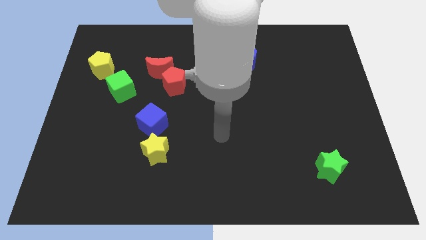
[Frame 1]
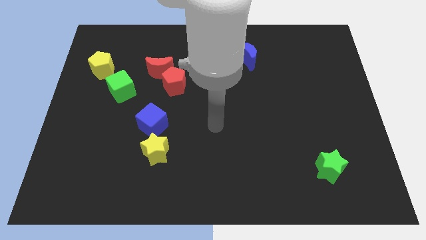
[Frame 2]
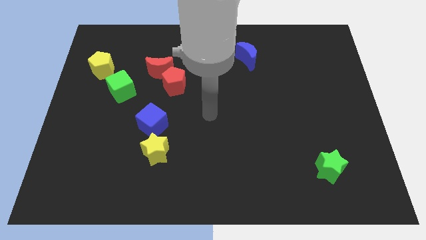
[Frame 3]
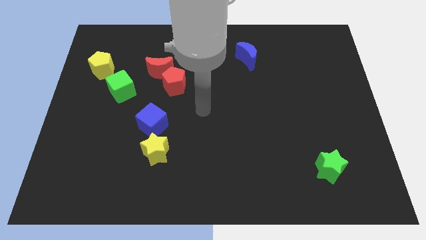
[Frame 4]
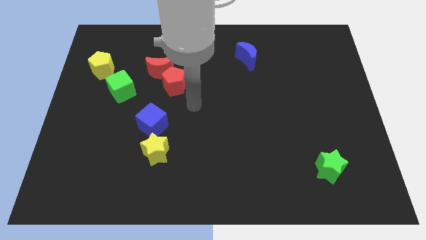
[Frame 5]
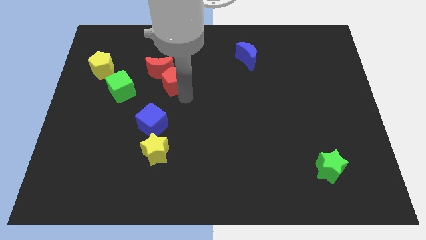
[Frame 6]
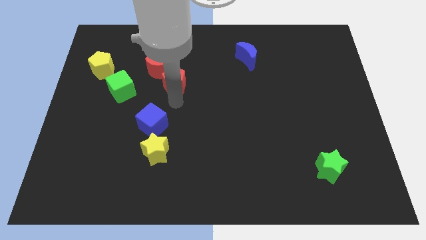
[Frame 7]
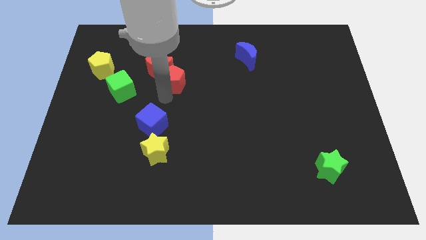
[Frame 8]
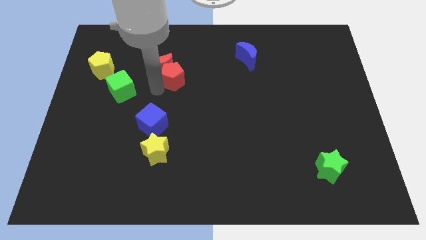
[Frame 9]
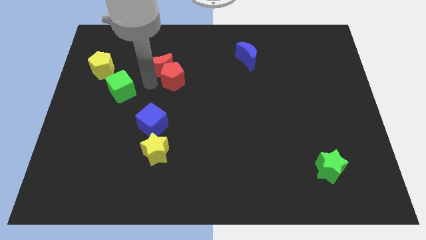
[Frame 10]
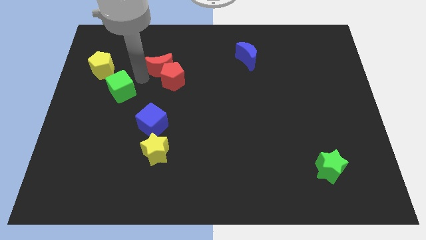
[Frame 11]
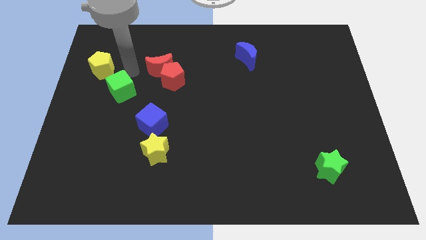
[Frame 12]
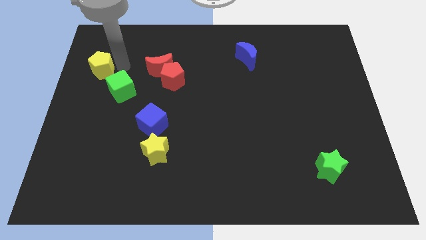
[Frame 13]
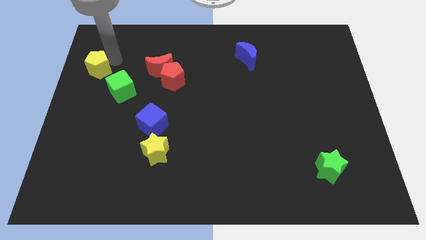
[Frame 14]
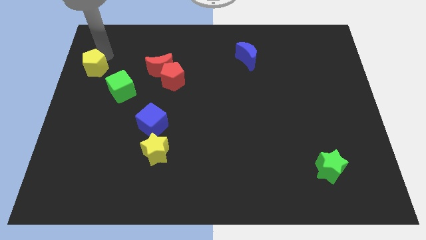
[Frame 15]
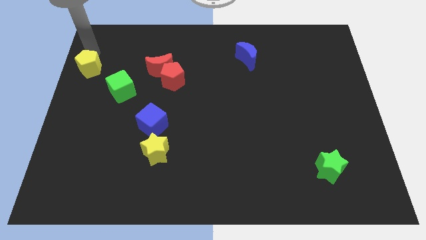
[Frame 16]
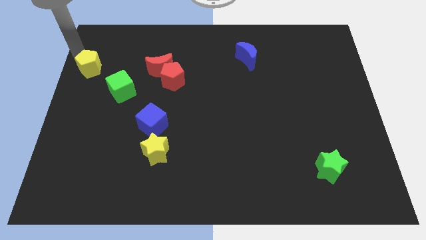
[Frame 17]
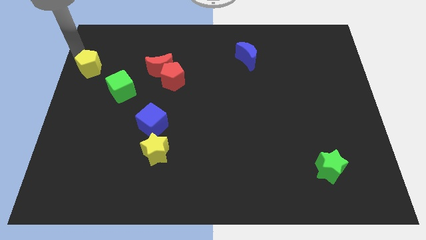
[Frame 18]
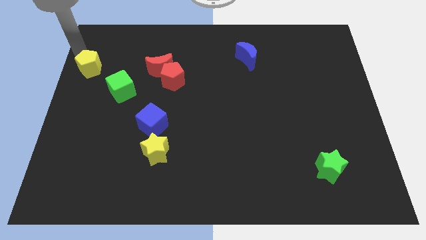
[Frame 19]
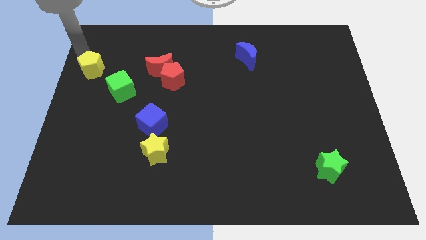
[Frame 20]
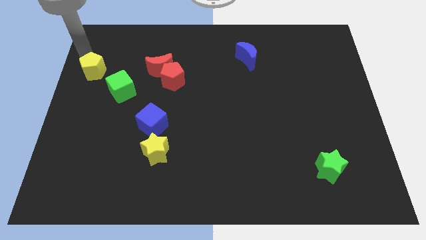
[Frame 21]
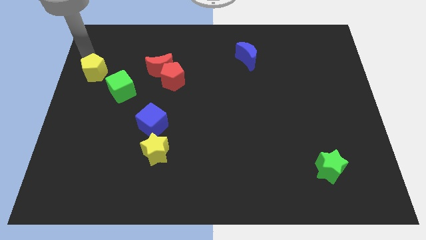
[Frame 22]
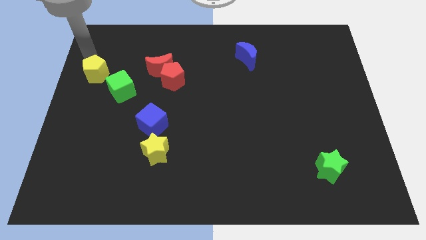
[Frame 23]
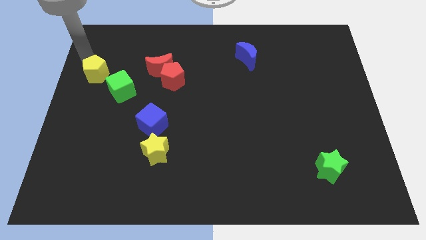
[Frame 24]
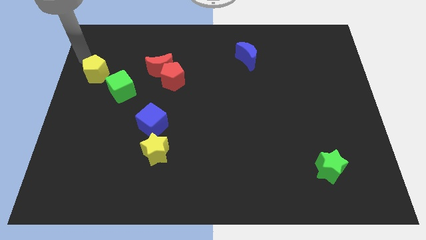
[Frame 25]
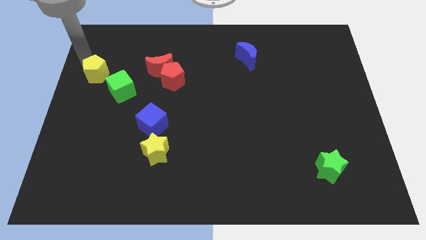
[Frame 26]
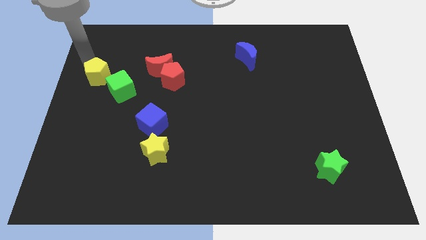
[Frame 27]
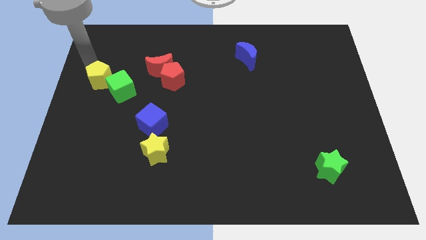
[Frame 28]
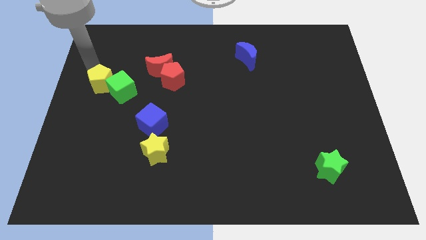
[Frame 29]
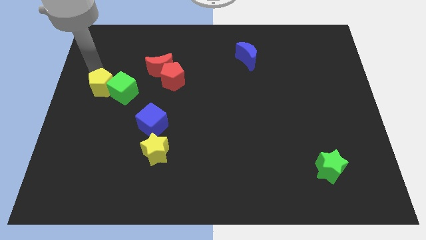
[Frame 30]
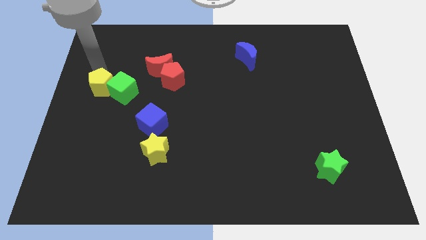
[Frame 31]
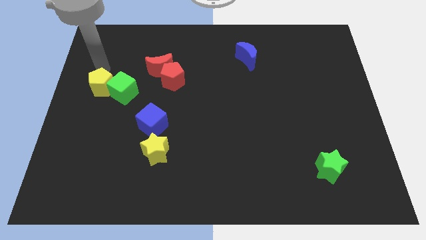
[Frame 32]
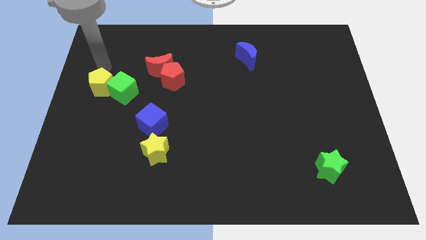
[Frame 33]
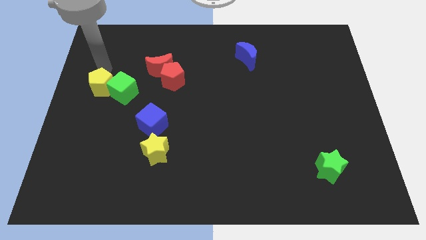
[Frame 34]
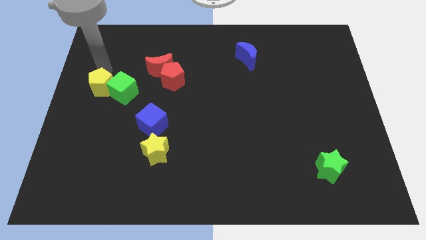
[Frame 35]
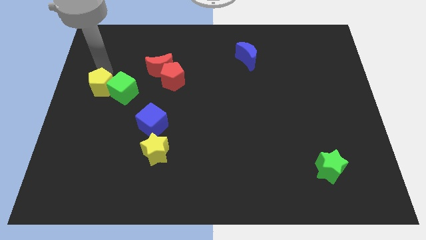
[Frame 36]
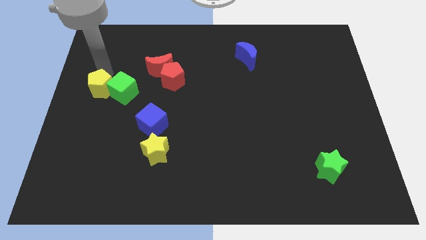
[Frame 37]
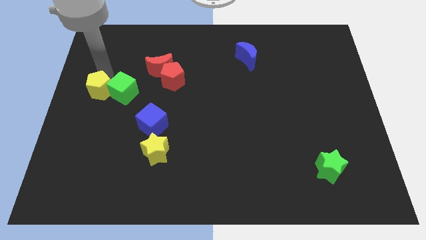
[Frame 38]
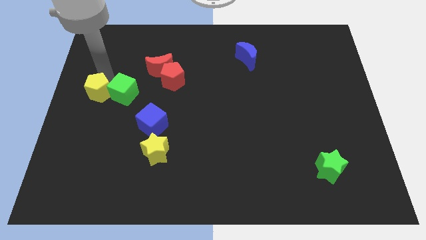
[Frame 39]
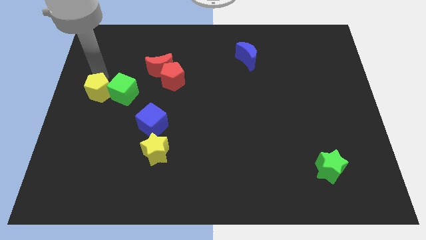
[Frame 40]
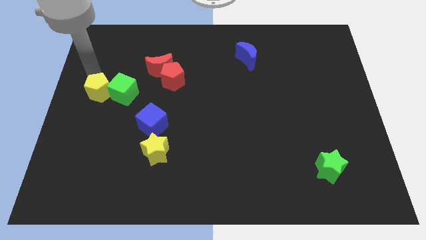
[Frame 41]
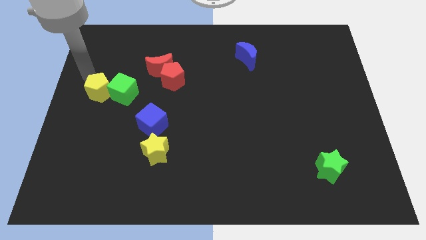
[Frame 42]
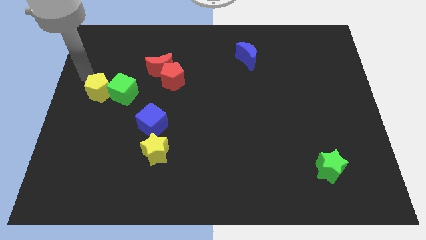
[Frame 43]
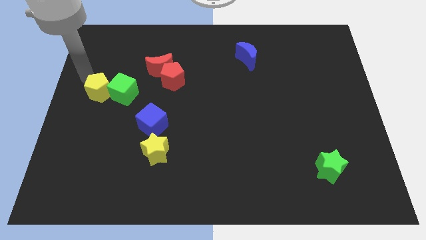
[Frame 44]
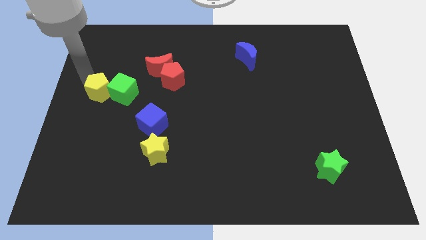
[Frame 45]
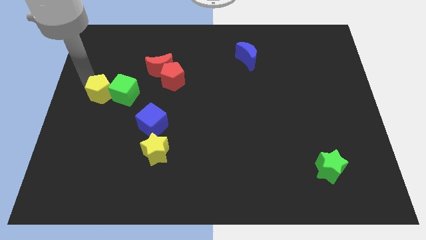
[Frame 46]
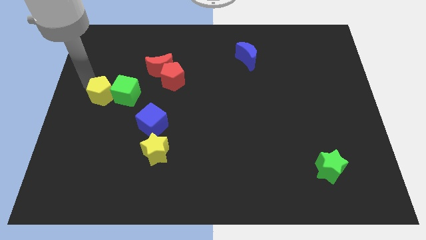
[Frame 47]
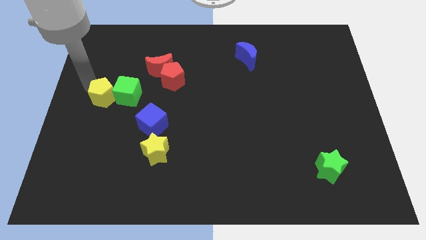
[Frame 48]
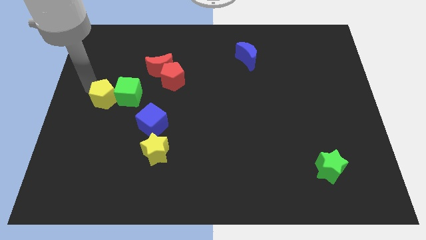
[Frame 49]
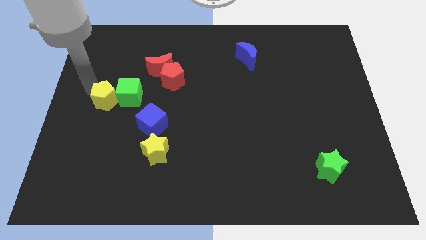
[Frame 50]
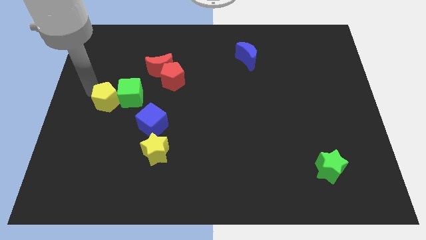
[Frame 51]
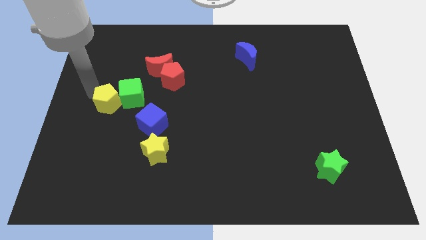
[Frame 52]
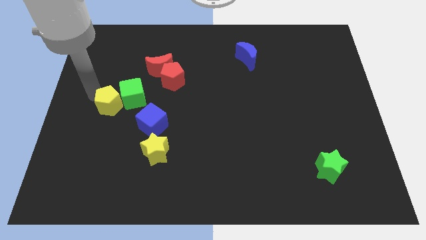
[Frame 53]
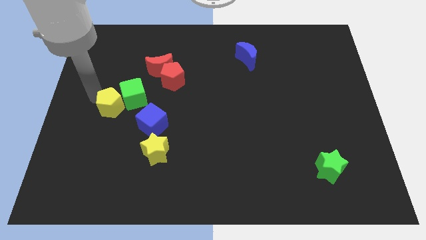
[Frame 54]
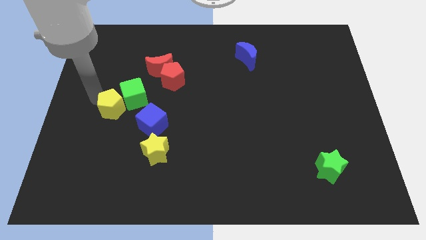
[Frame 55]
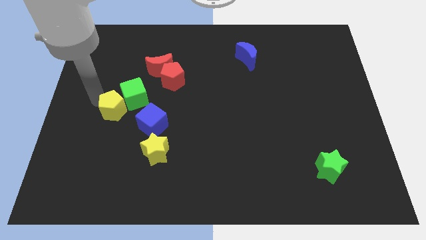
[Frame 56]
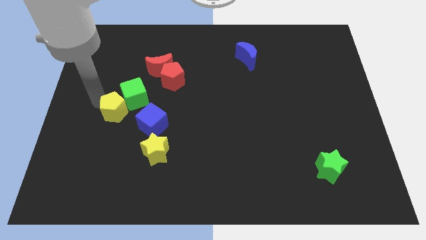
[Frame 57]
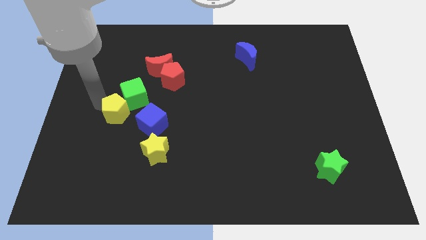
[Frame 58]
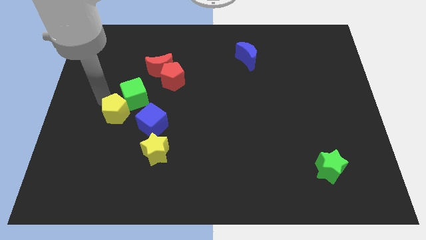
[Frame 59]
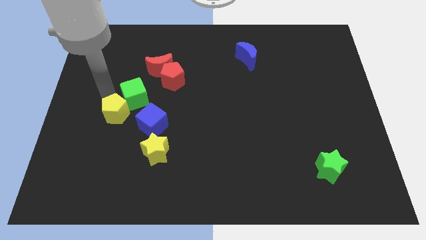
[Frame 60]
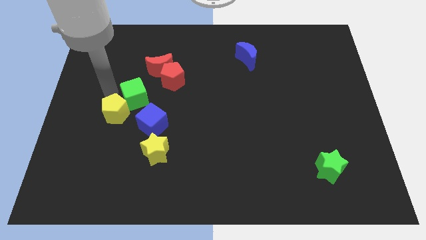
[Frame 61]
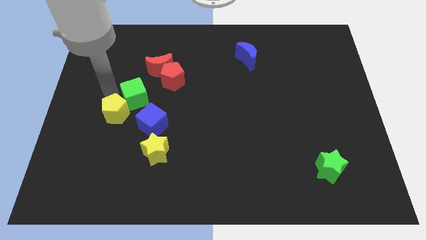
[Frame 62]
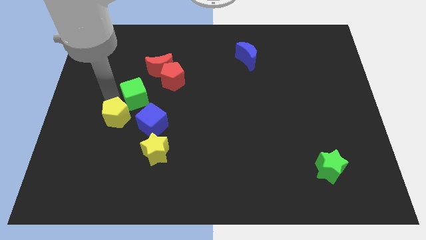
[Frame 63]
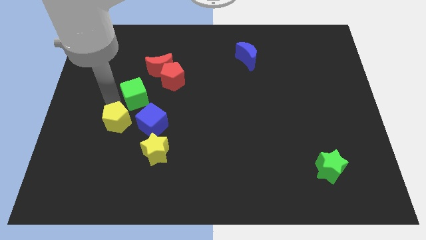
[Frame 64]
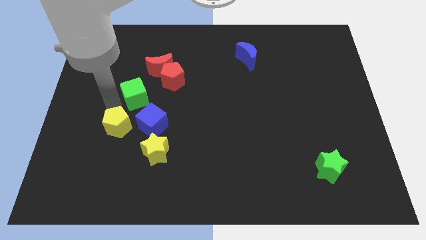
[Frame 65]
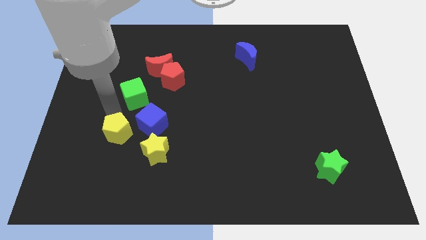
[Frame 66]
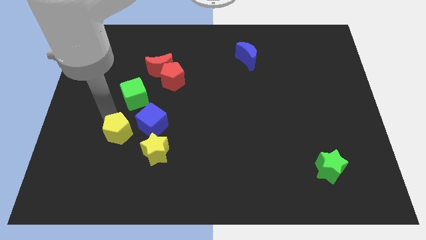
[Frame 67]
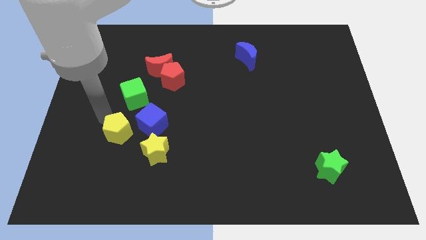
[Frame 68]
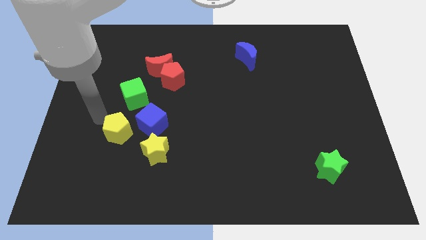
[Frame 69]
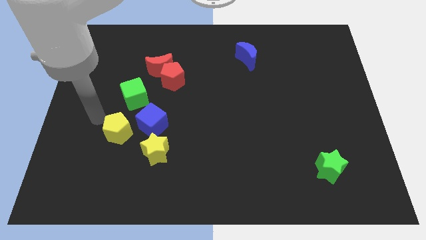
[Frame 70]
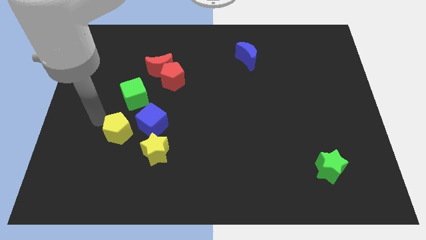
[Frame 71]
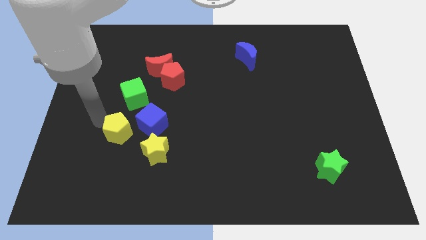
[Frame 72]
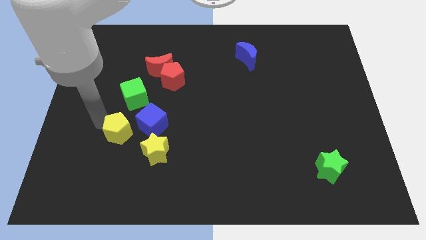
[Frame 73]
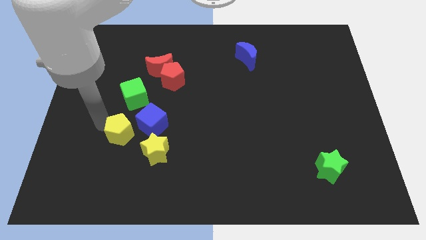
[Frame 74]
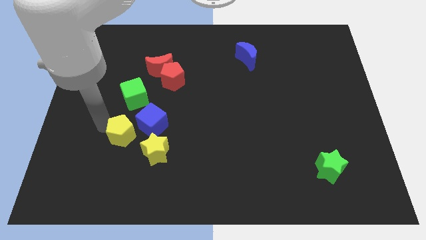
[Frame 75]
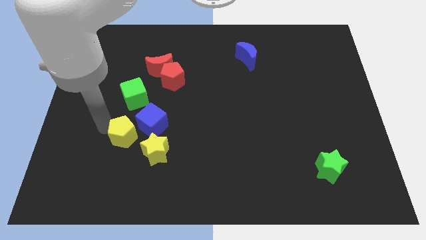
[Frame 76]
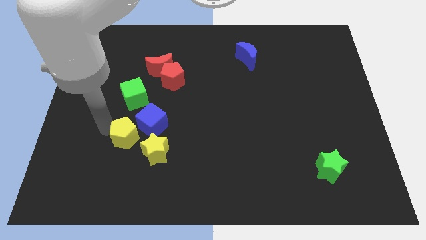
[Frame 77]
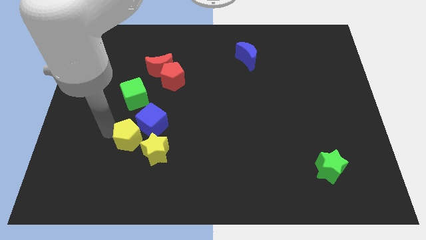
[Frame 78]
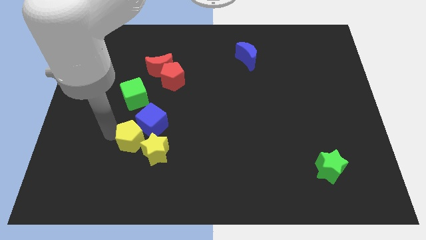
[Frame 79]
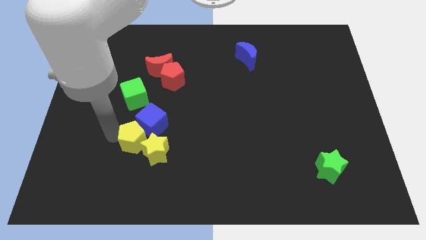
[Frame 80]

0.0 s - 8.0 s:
move the yellow pentagon next to the yellow star
